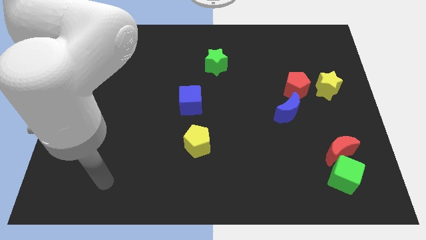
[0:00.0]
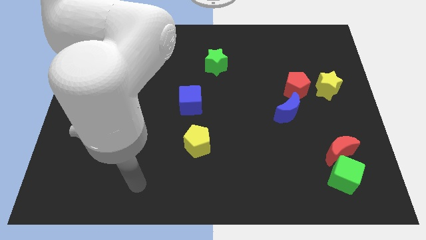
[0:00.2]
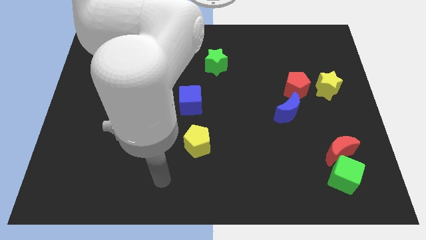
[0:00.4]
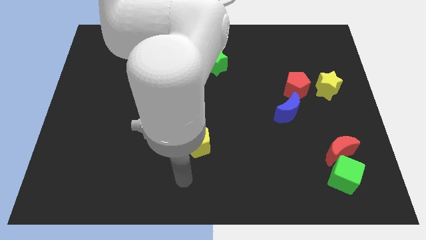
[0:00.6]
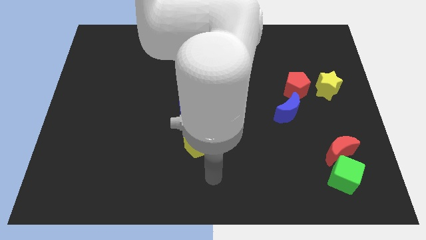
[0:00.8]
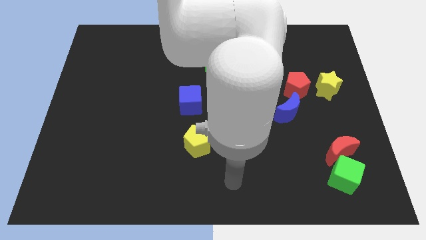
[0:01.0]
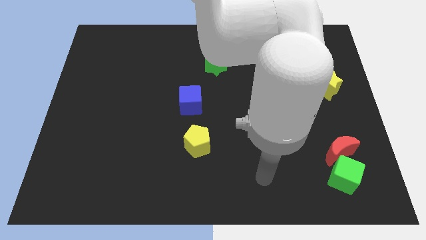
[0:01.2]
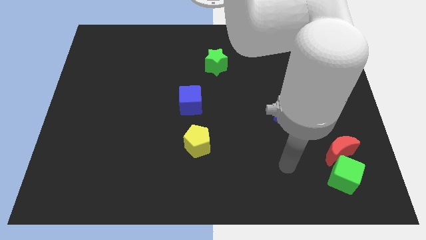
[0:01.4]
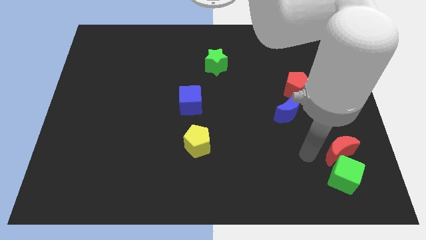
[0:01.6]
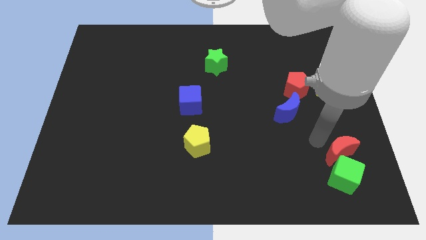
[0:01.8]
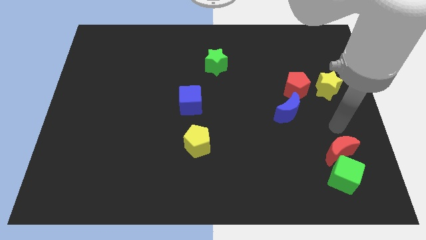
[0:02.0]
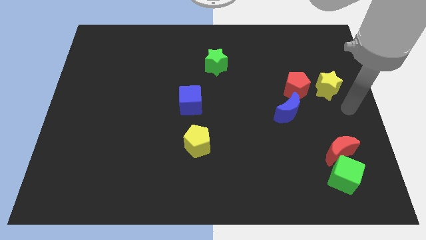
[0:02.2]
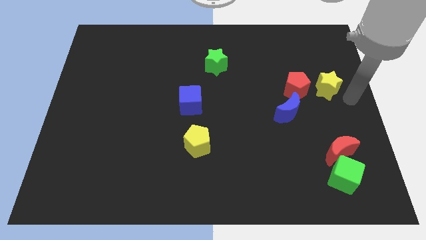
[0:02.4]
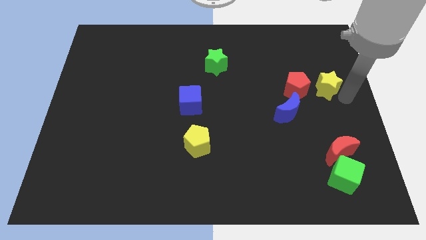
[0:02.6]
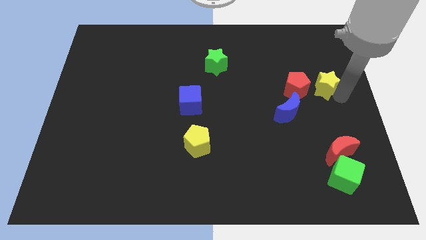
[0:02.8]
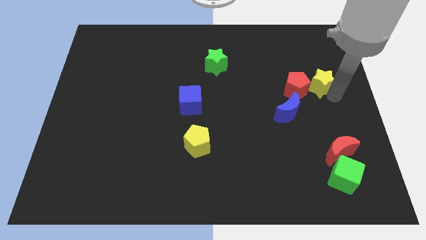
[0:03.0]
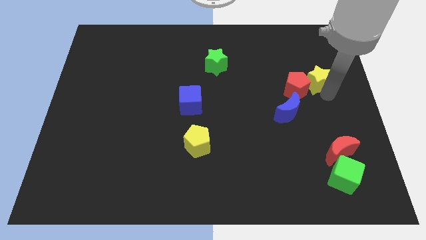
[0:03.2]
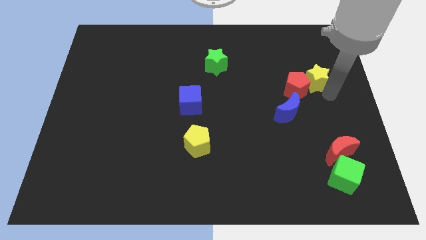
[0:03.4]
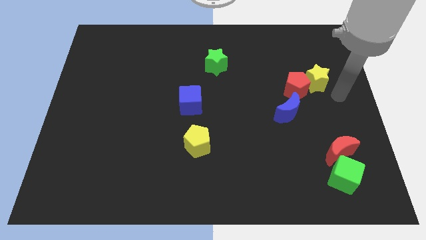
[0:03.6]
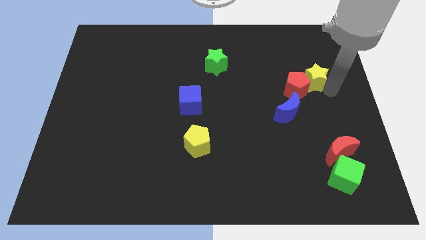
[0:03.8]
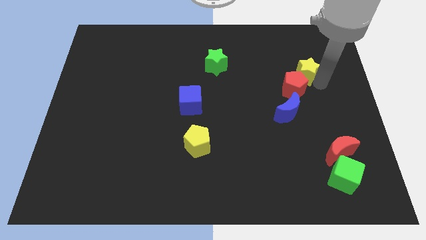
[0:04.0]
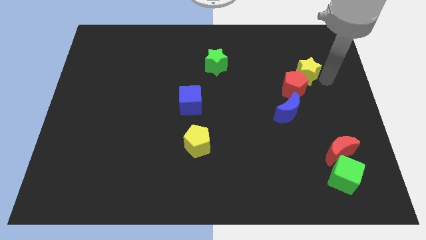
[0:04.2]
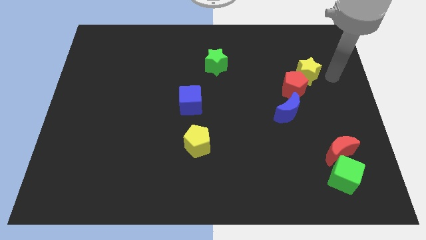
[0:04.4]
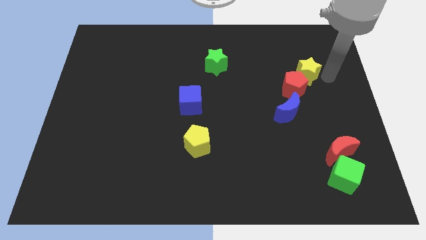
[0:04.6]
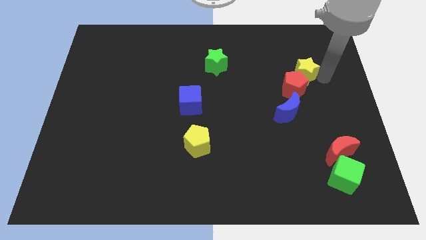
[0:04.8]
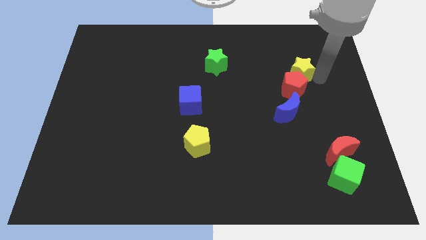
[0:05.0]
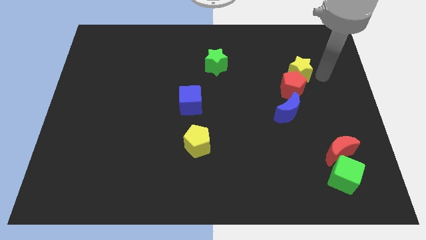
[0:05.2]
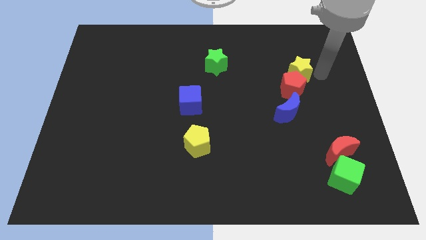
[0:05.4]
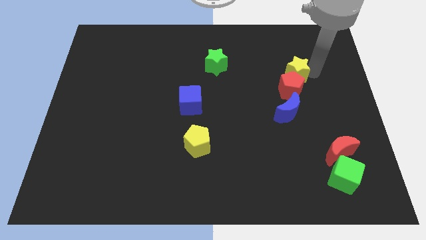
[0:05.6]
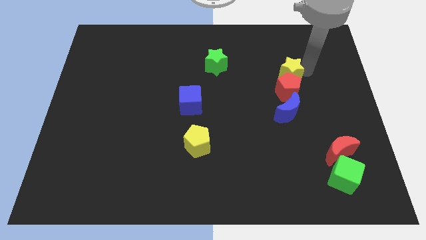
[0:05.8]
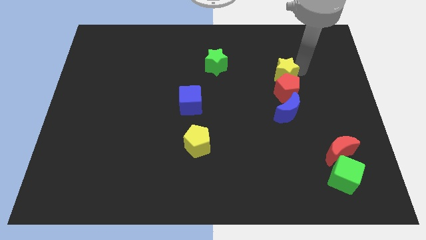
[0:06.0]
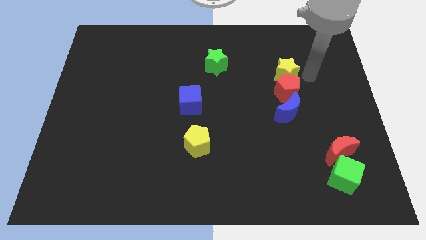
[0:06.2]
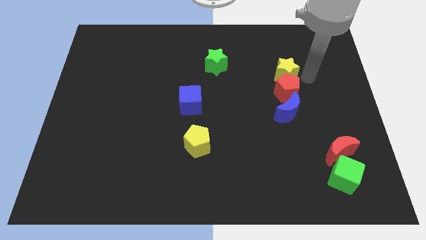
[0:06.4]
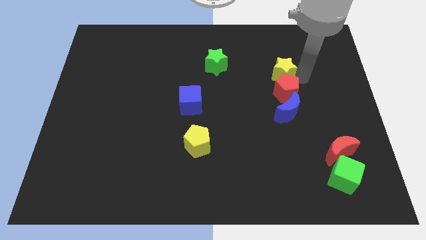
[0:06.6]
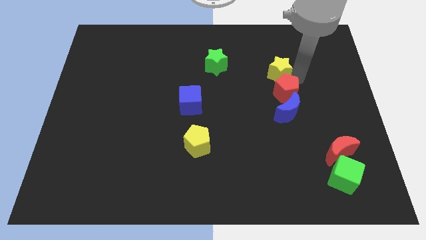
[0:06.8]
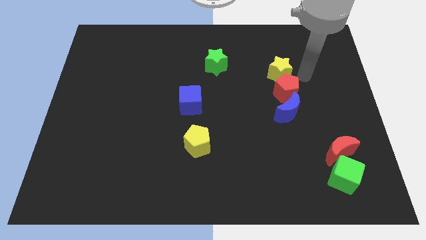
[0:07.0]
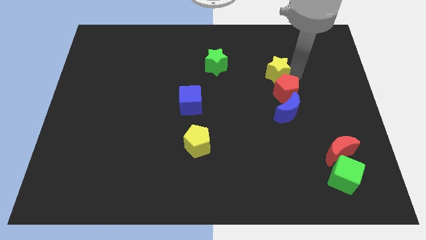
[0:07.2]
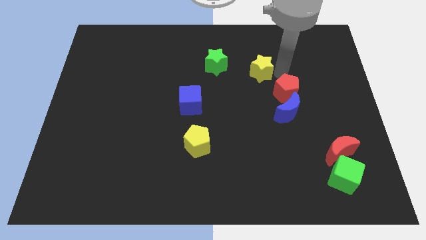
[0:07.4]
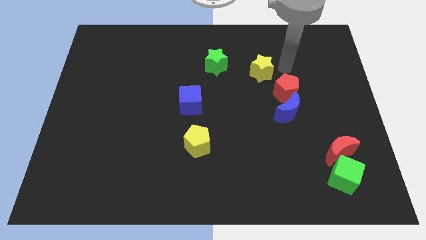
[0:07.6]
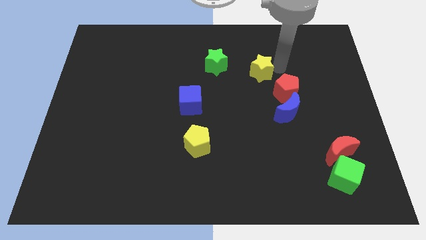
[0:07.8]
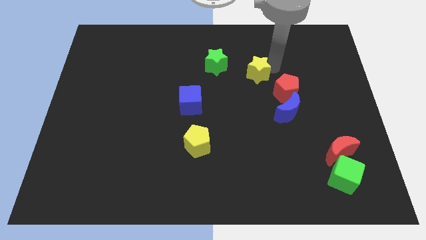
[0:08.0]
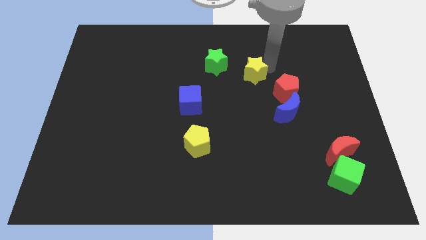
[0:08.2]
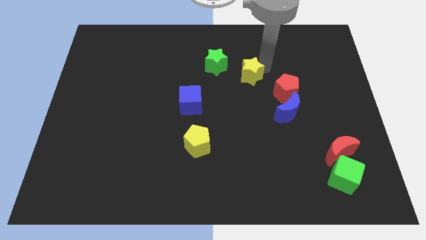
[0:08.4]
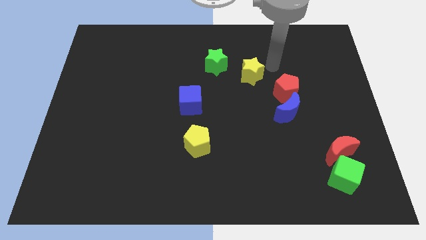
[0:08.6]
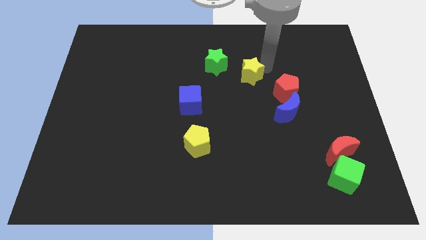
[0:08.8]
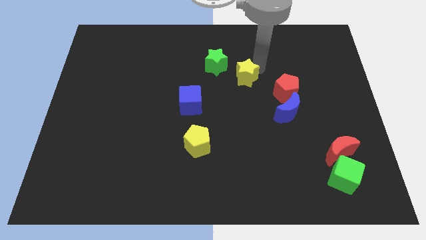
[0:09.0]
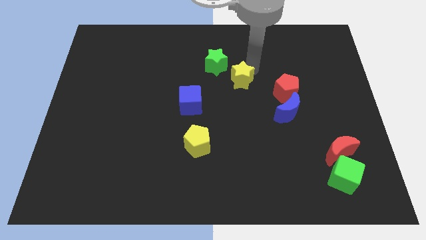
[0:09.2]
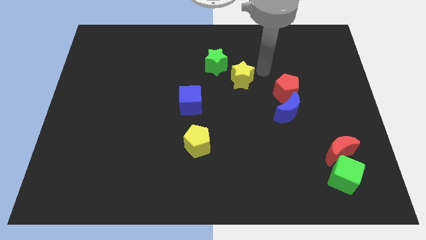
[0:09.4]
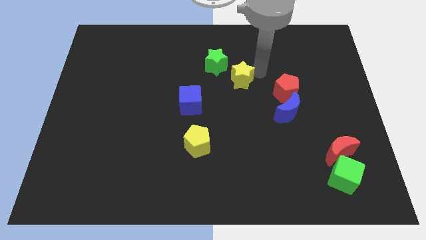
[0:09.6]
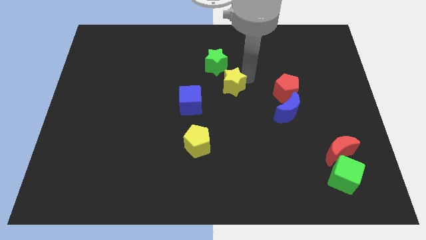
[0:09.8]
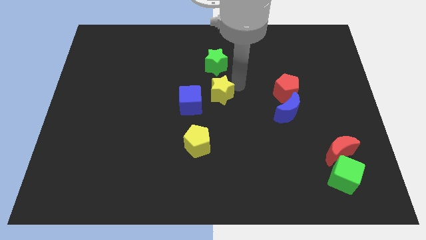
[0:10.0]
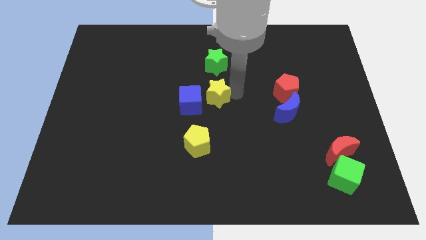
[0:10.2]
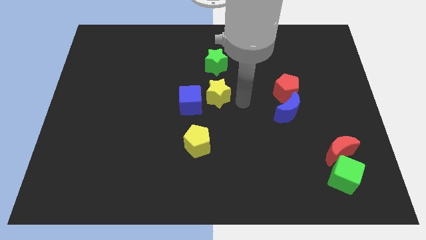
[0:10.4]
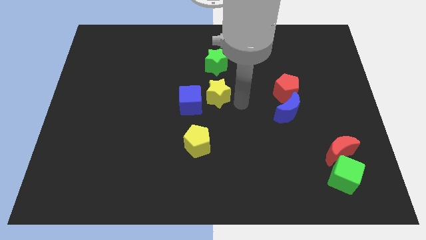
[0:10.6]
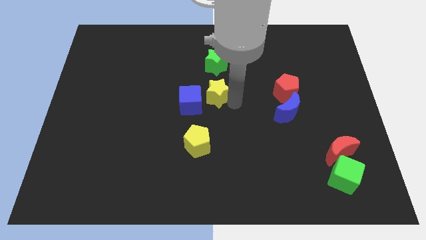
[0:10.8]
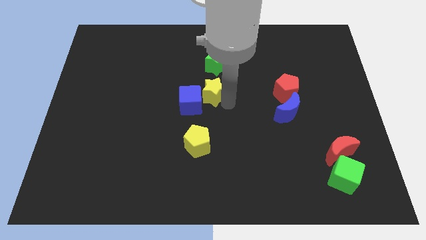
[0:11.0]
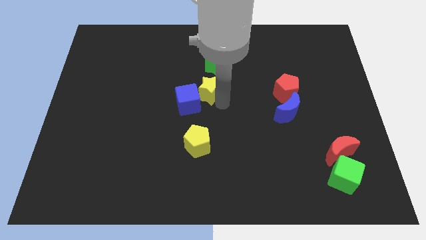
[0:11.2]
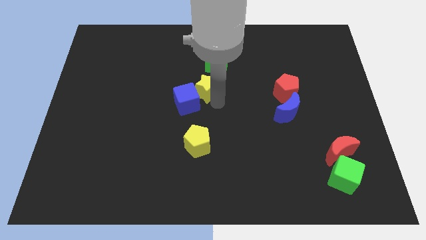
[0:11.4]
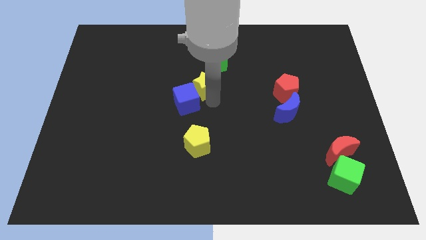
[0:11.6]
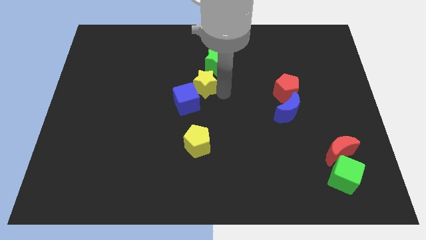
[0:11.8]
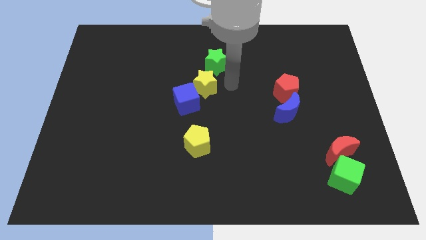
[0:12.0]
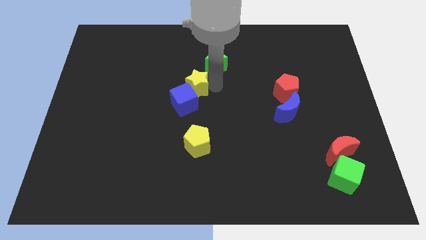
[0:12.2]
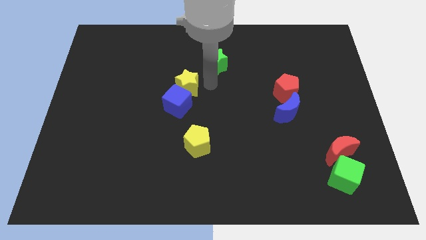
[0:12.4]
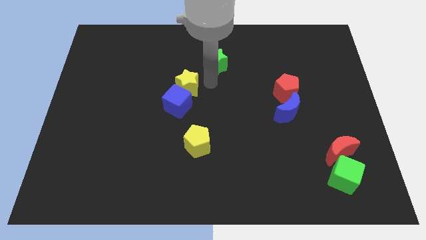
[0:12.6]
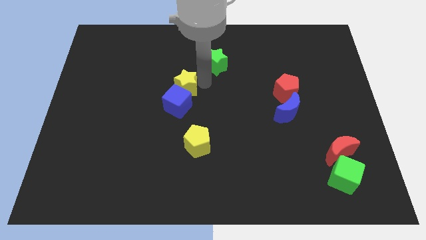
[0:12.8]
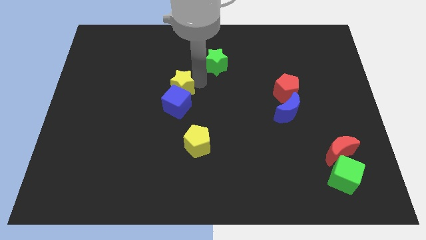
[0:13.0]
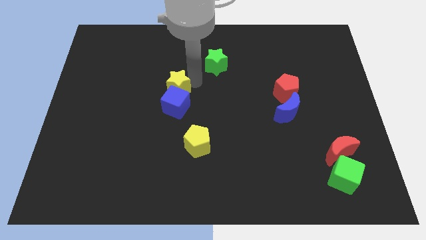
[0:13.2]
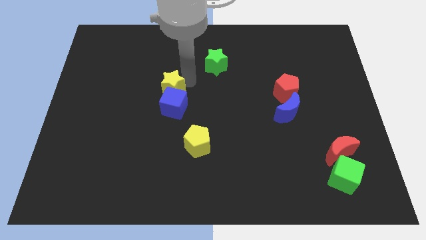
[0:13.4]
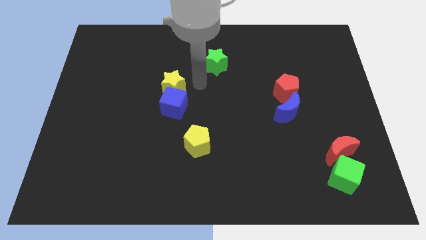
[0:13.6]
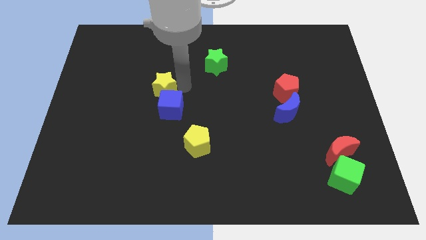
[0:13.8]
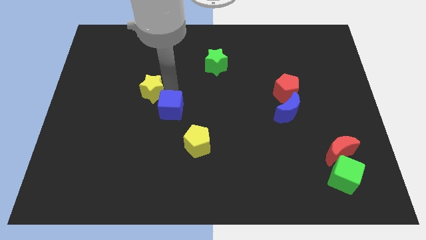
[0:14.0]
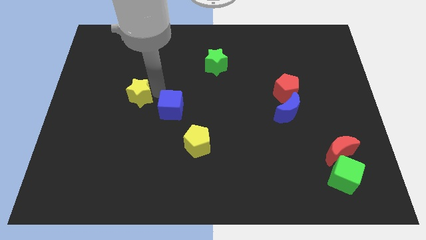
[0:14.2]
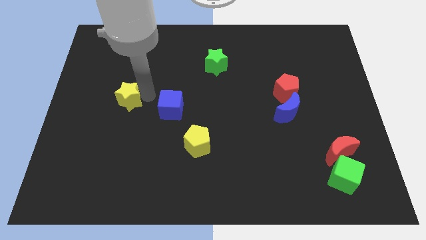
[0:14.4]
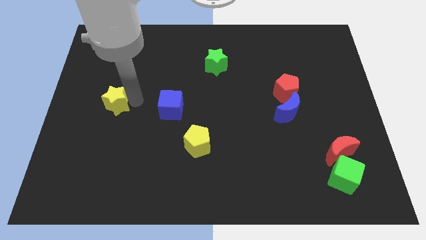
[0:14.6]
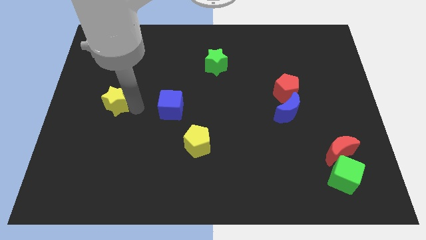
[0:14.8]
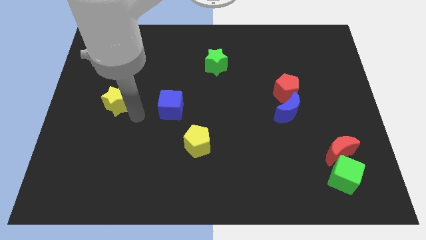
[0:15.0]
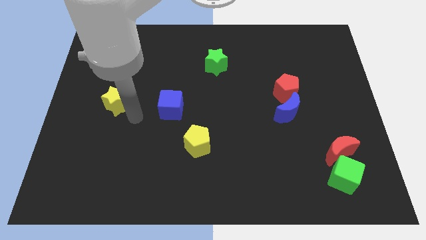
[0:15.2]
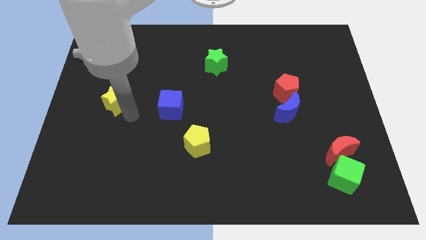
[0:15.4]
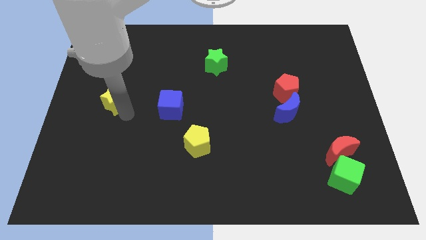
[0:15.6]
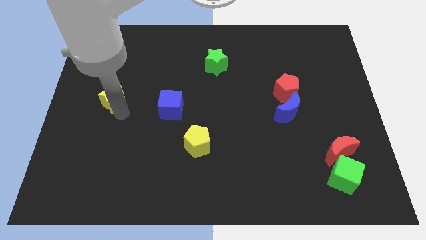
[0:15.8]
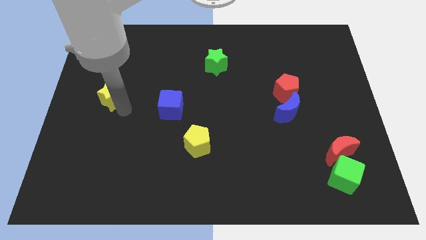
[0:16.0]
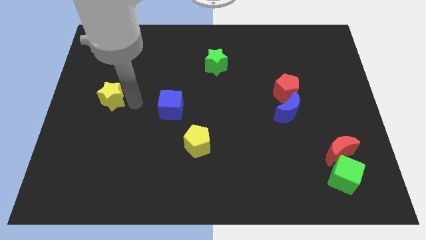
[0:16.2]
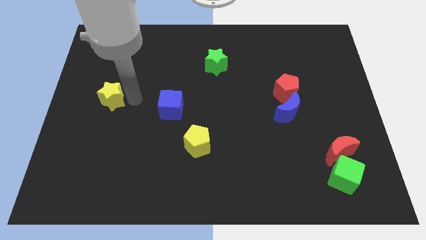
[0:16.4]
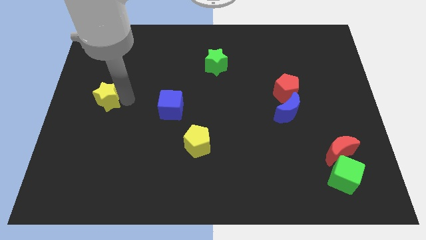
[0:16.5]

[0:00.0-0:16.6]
slide the yellow star to the left side of the board
